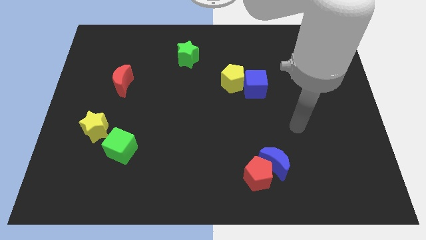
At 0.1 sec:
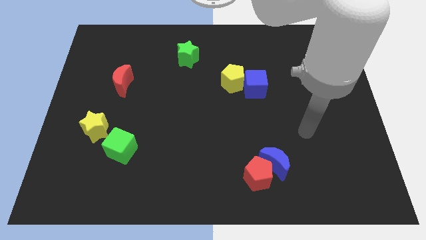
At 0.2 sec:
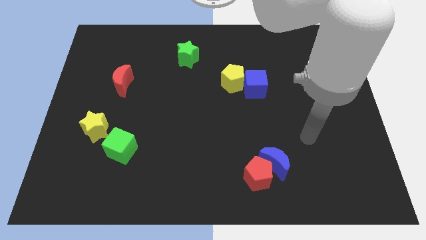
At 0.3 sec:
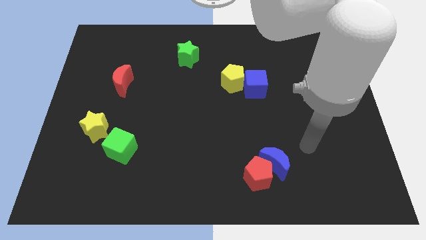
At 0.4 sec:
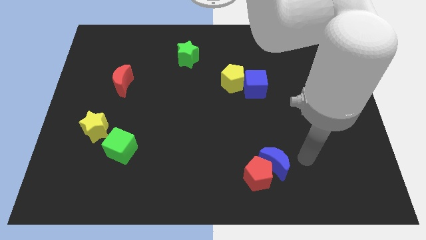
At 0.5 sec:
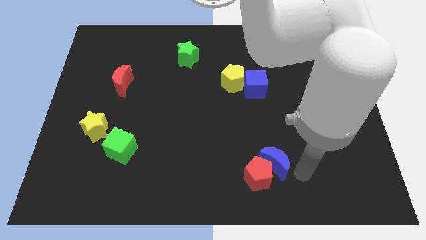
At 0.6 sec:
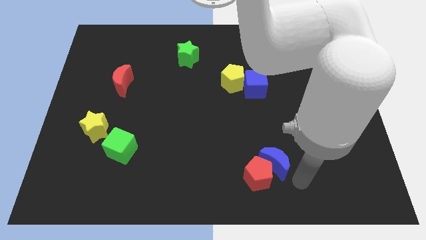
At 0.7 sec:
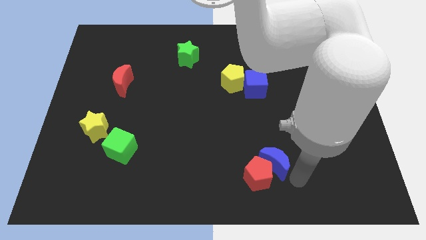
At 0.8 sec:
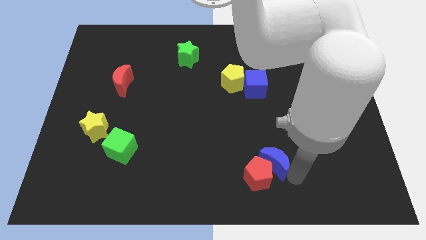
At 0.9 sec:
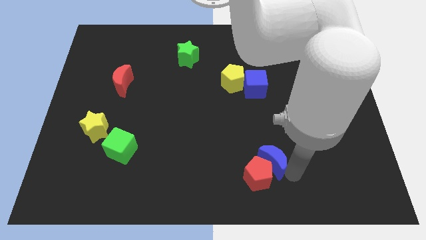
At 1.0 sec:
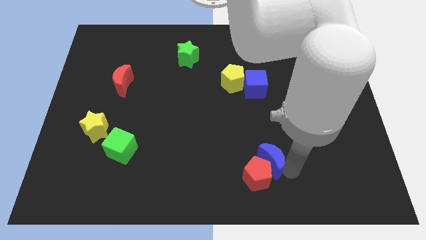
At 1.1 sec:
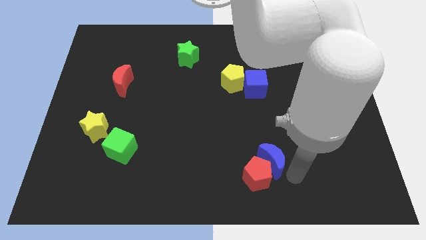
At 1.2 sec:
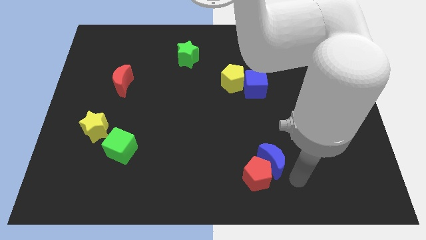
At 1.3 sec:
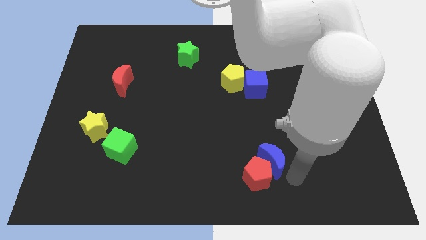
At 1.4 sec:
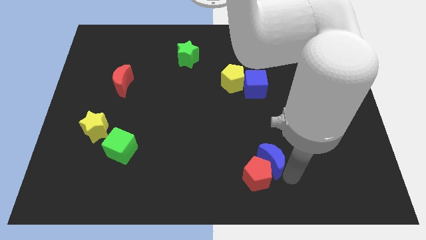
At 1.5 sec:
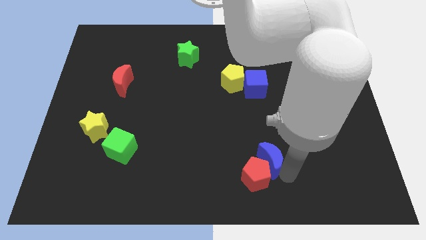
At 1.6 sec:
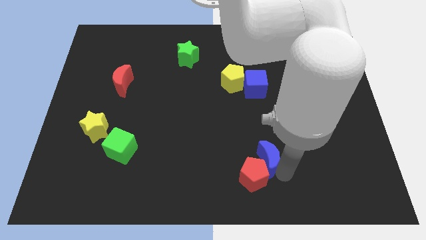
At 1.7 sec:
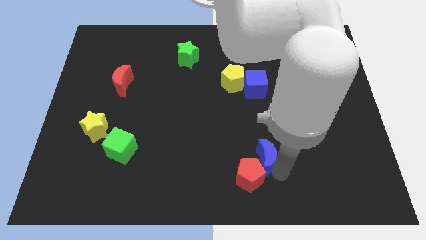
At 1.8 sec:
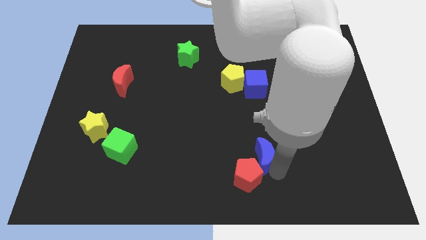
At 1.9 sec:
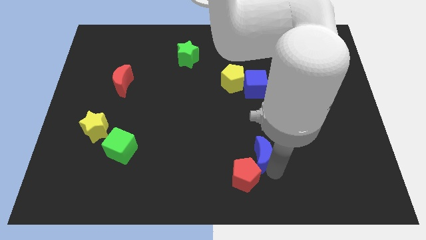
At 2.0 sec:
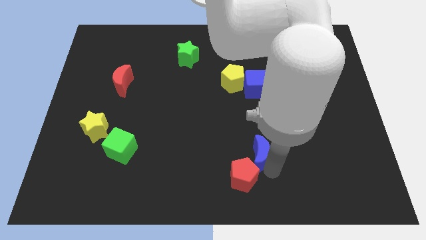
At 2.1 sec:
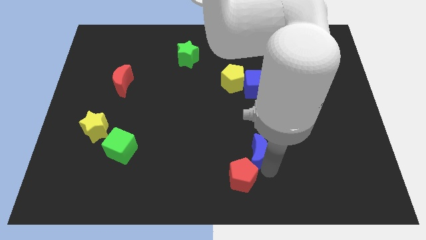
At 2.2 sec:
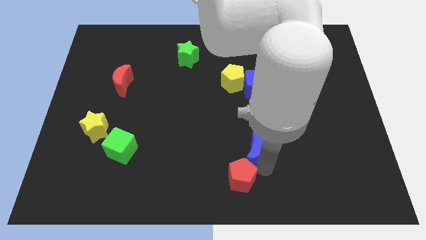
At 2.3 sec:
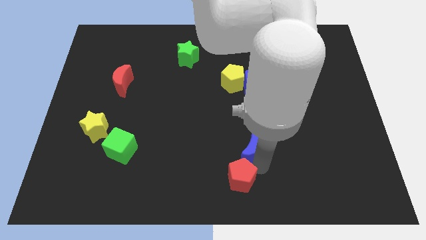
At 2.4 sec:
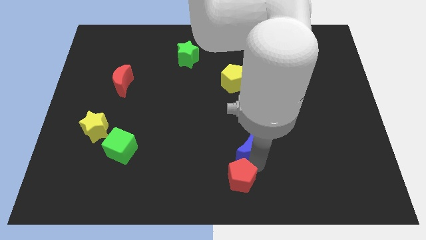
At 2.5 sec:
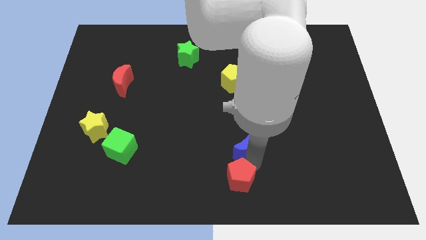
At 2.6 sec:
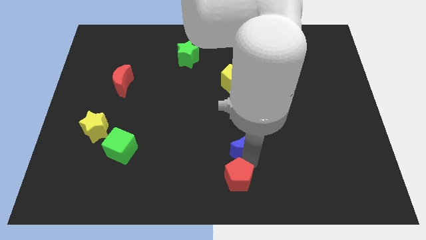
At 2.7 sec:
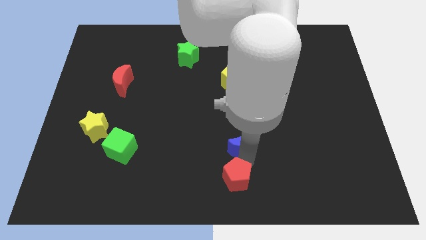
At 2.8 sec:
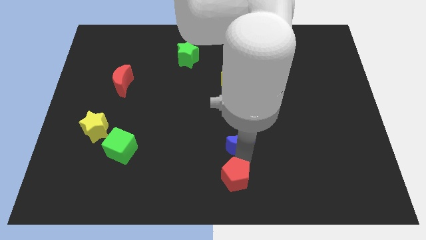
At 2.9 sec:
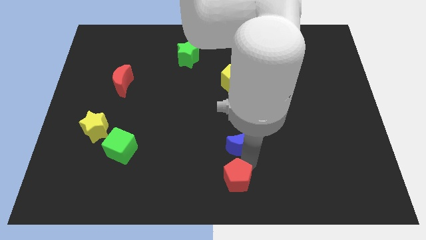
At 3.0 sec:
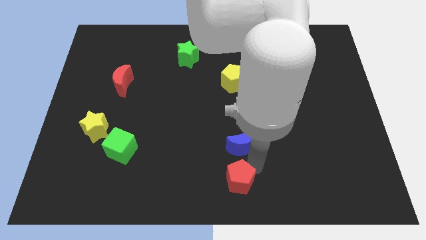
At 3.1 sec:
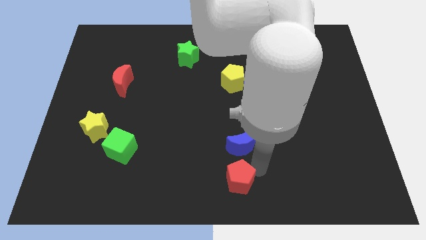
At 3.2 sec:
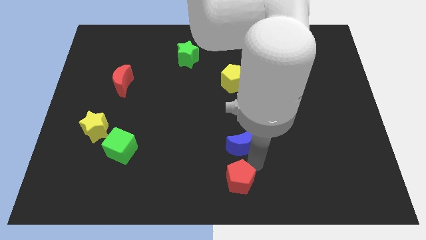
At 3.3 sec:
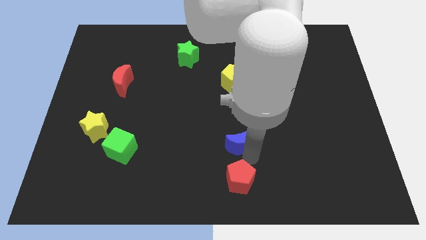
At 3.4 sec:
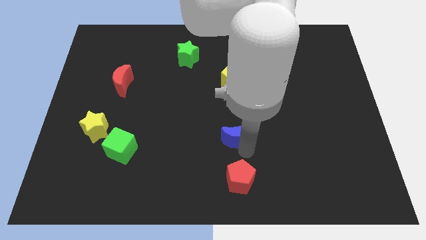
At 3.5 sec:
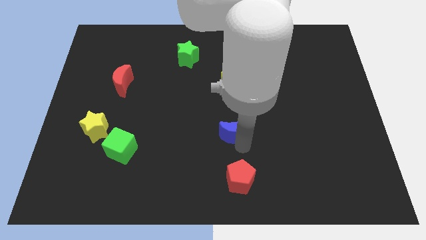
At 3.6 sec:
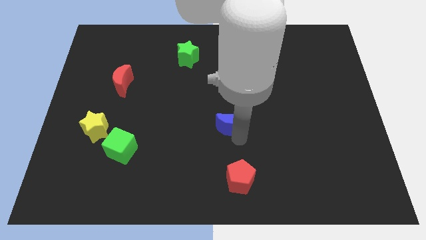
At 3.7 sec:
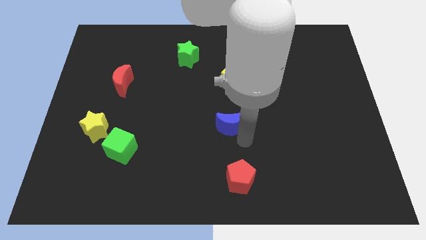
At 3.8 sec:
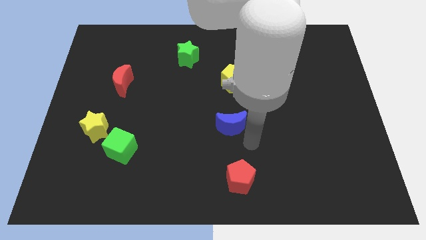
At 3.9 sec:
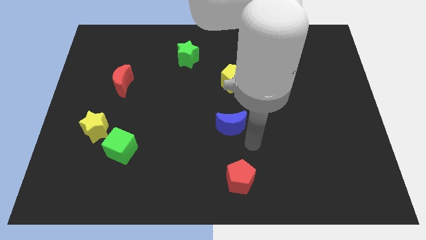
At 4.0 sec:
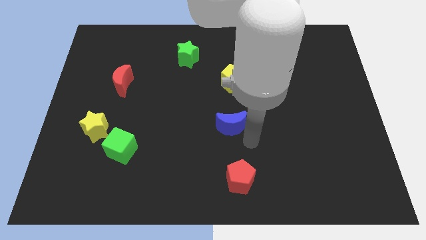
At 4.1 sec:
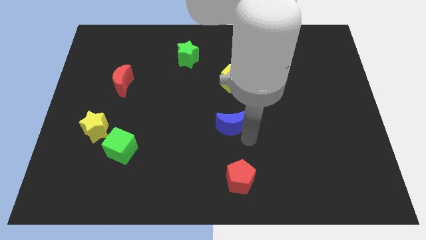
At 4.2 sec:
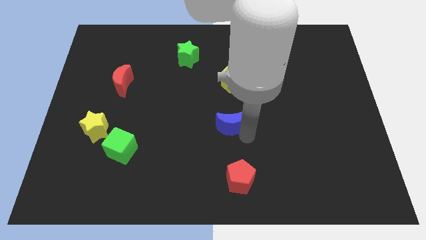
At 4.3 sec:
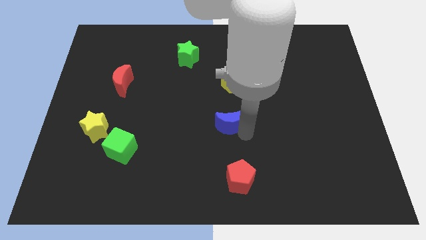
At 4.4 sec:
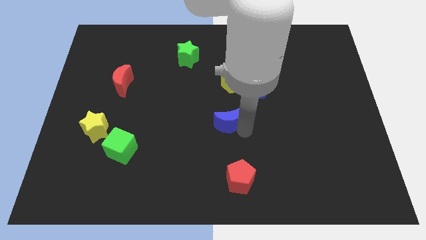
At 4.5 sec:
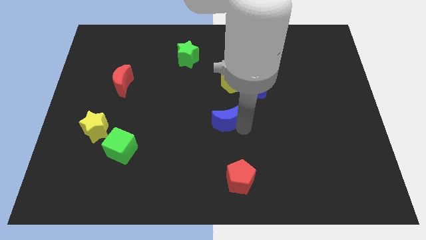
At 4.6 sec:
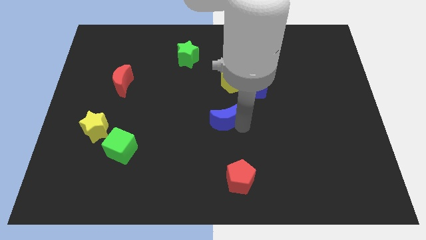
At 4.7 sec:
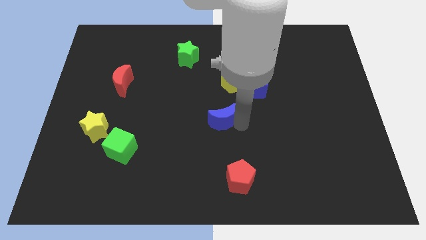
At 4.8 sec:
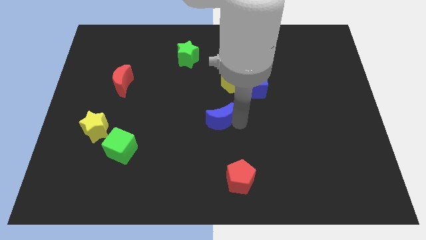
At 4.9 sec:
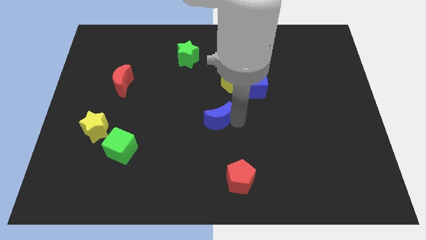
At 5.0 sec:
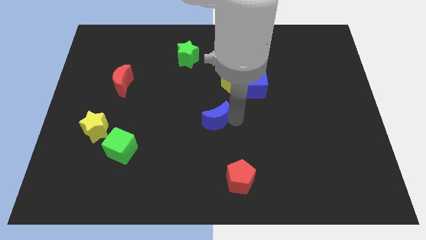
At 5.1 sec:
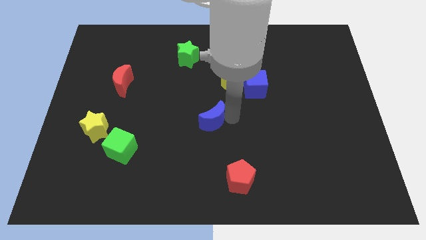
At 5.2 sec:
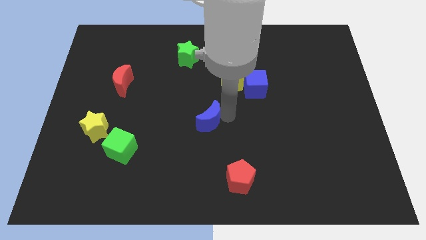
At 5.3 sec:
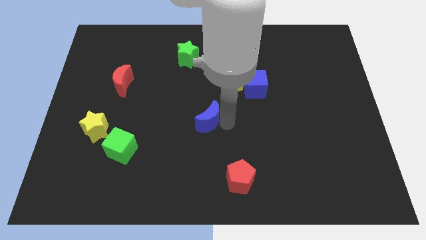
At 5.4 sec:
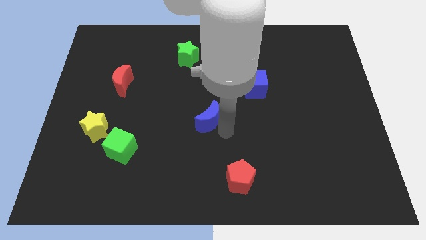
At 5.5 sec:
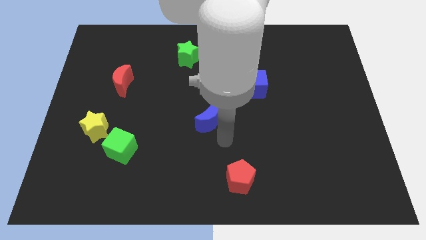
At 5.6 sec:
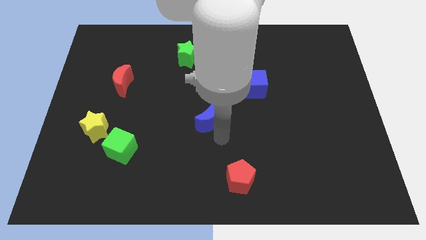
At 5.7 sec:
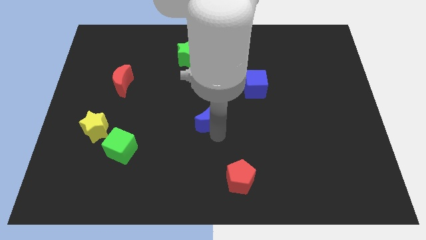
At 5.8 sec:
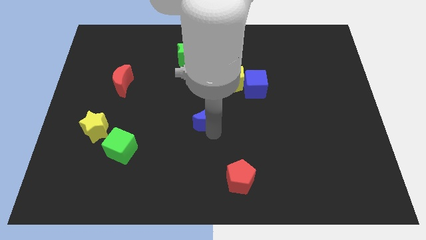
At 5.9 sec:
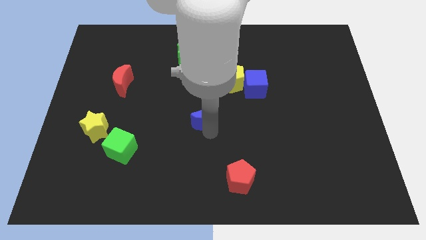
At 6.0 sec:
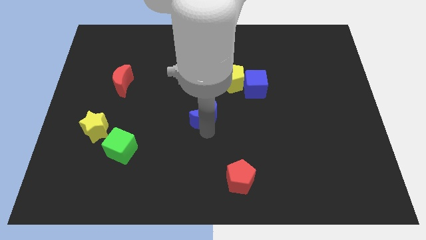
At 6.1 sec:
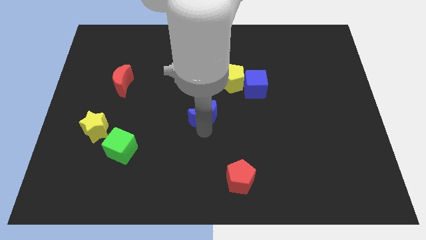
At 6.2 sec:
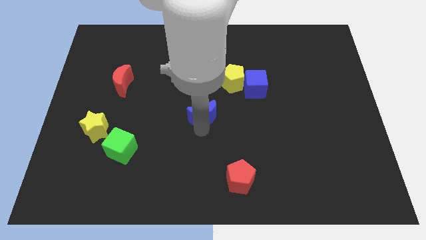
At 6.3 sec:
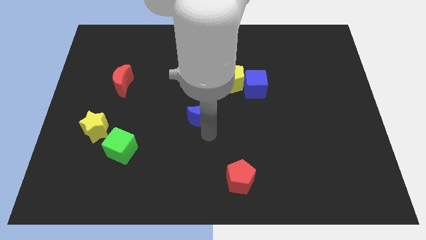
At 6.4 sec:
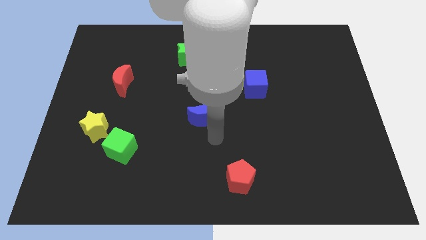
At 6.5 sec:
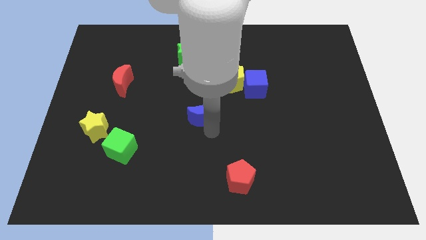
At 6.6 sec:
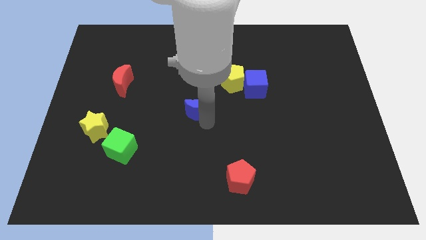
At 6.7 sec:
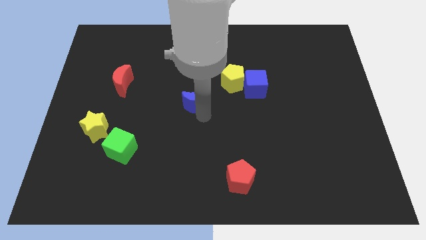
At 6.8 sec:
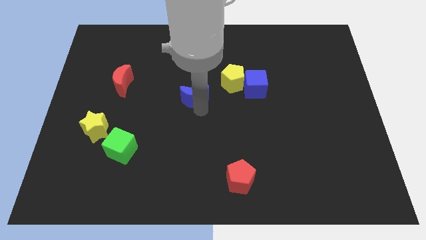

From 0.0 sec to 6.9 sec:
move the blue moon to the bottom of the green star

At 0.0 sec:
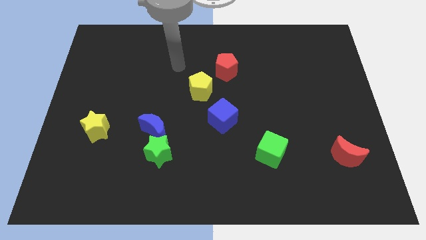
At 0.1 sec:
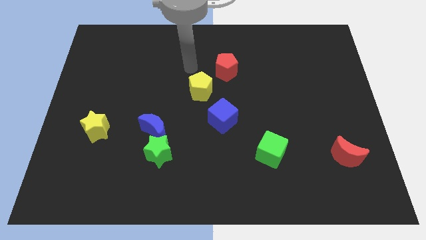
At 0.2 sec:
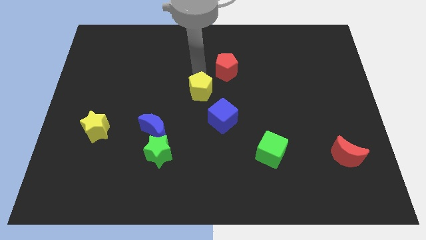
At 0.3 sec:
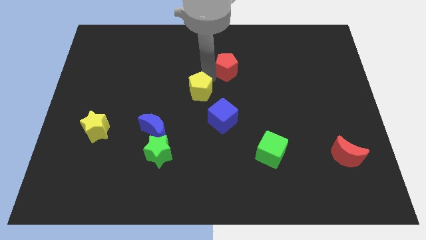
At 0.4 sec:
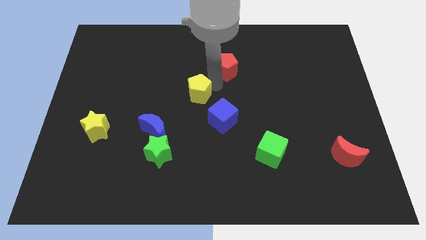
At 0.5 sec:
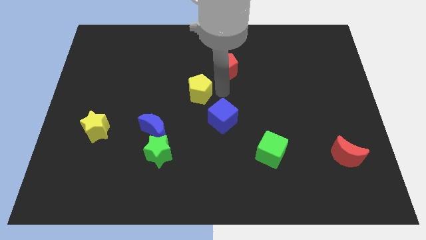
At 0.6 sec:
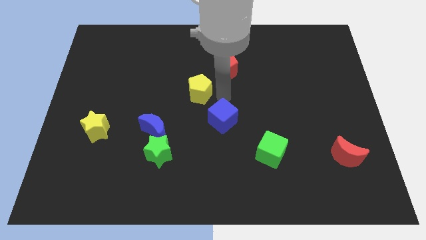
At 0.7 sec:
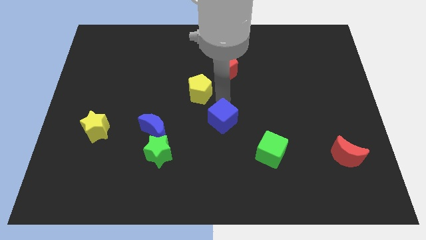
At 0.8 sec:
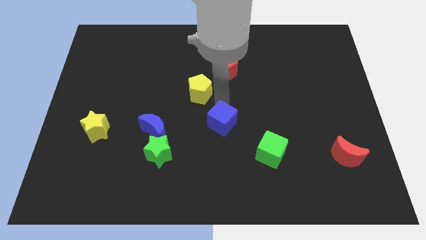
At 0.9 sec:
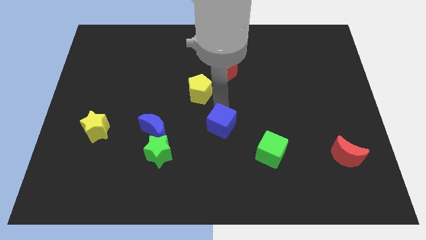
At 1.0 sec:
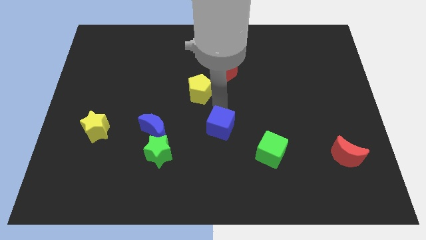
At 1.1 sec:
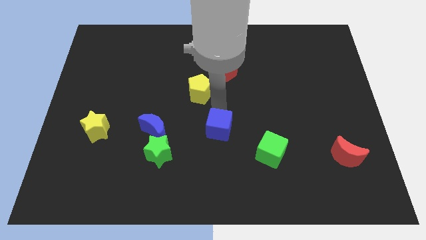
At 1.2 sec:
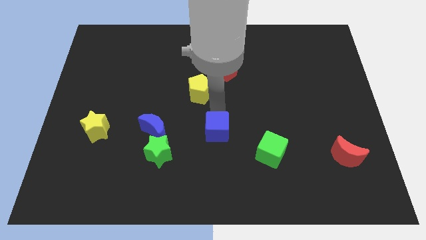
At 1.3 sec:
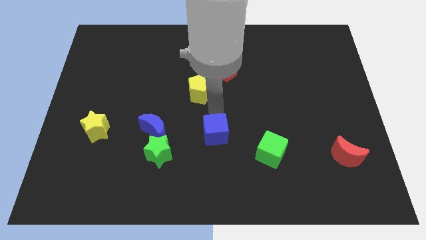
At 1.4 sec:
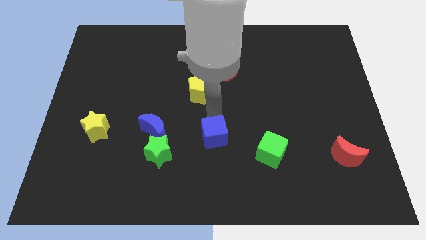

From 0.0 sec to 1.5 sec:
put the blue cube to the left side of the green cube
